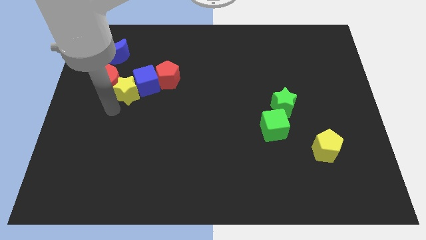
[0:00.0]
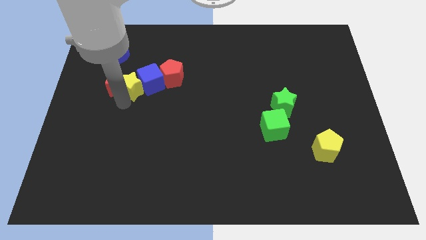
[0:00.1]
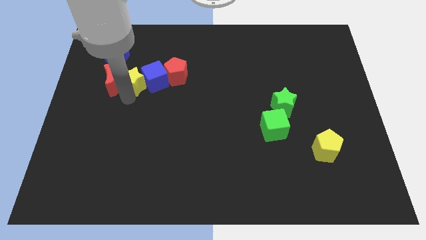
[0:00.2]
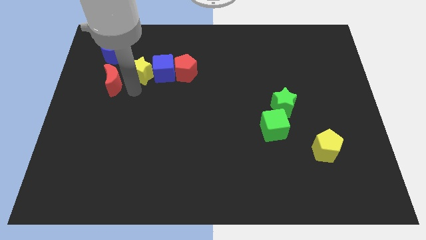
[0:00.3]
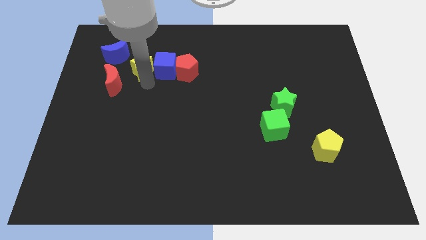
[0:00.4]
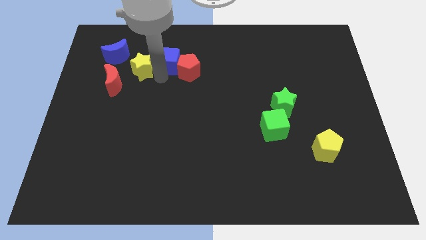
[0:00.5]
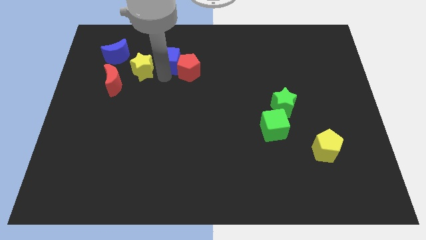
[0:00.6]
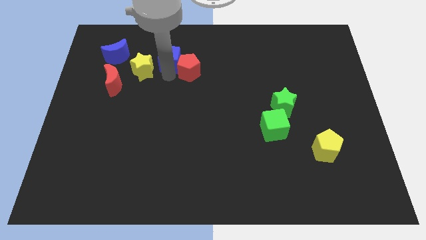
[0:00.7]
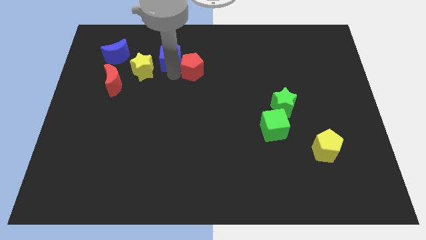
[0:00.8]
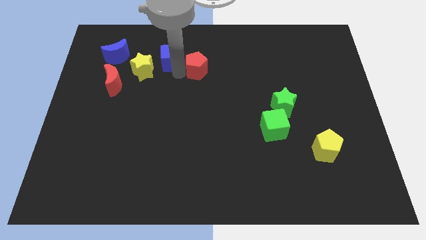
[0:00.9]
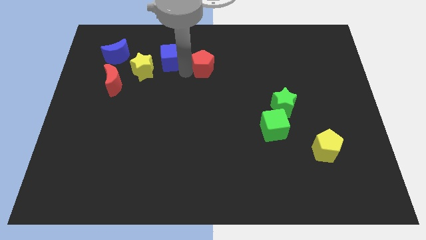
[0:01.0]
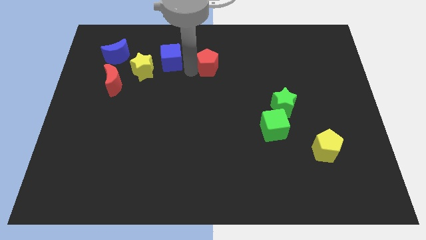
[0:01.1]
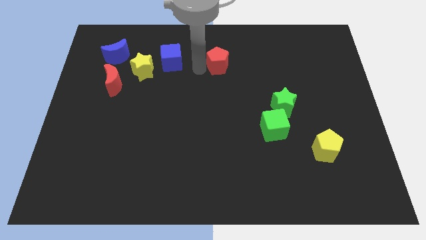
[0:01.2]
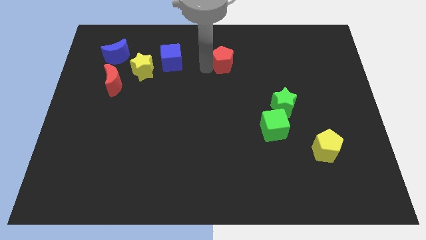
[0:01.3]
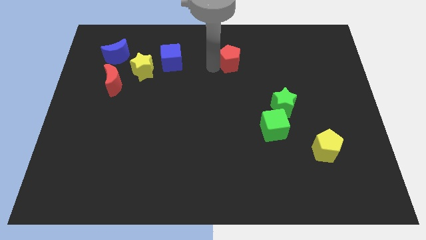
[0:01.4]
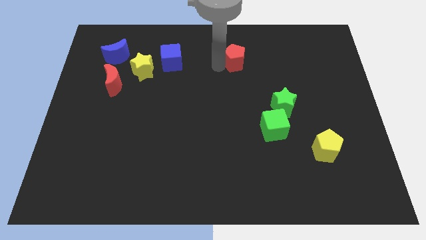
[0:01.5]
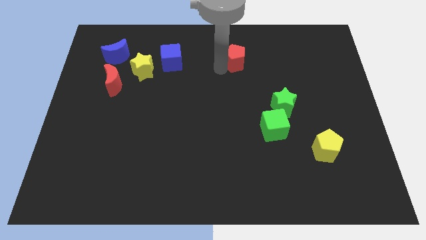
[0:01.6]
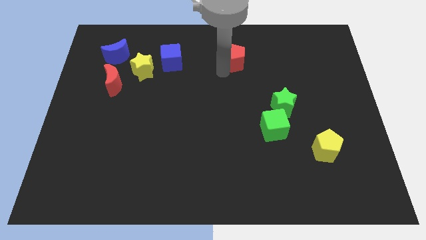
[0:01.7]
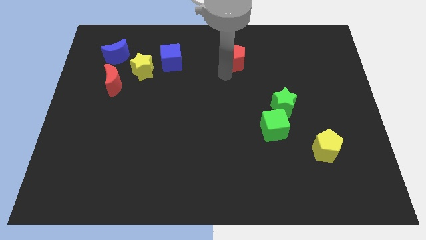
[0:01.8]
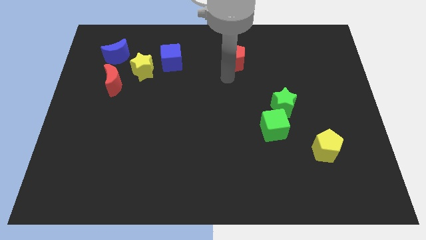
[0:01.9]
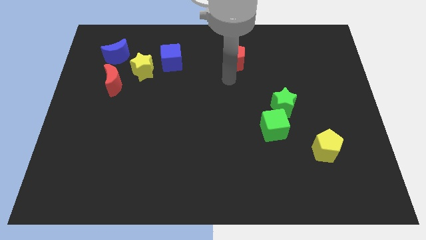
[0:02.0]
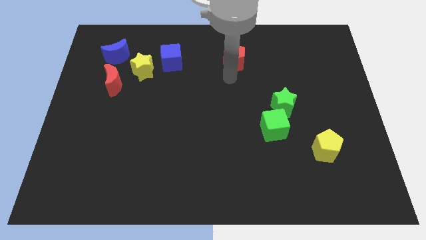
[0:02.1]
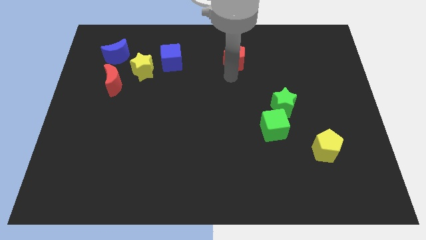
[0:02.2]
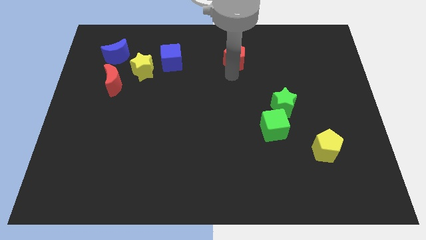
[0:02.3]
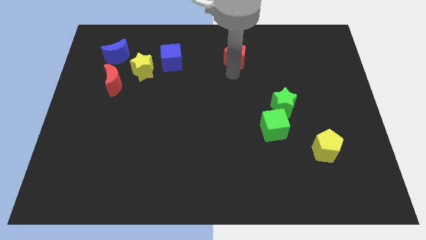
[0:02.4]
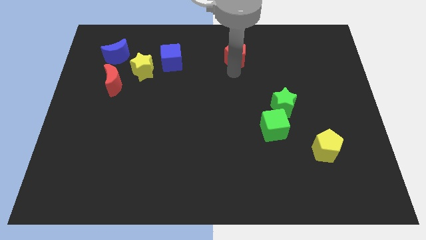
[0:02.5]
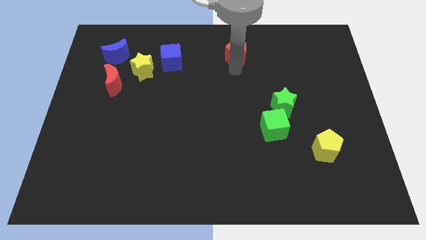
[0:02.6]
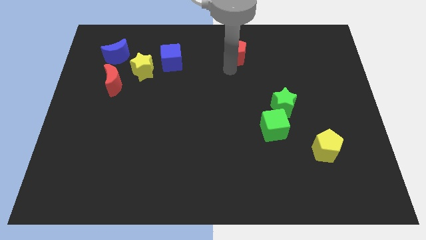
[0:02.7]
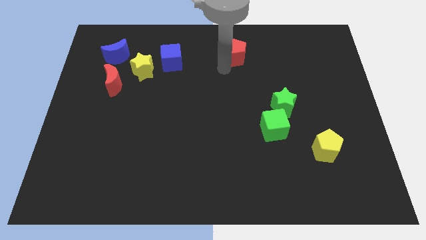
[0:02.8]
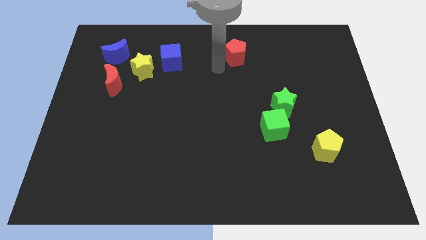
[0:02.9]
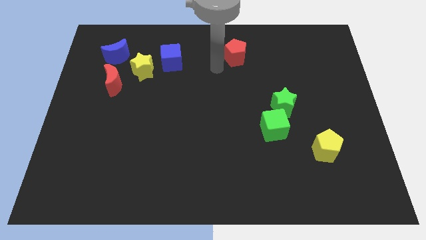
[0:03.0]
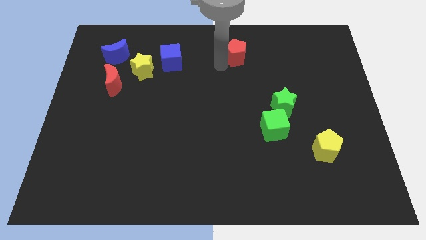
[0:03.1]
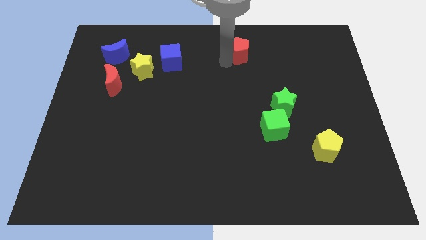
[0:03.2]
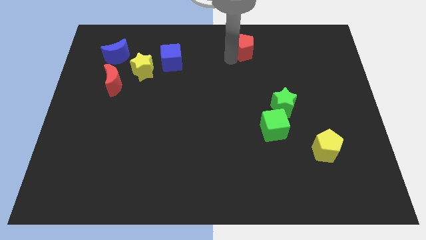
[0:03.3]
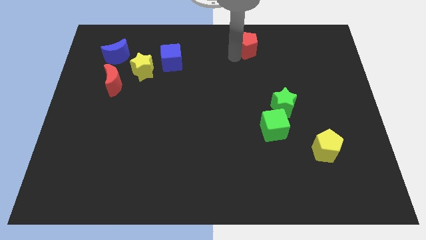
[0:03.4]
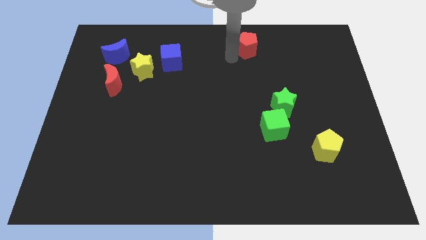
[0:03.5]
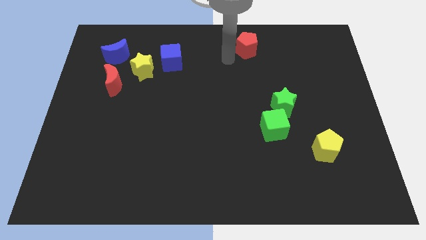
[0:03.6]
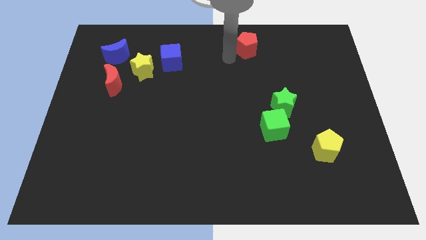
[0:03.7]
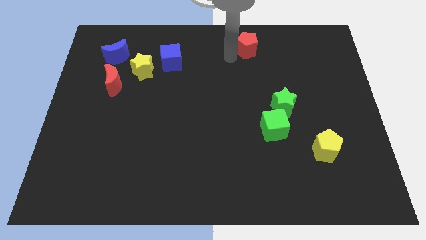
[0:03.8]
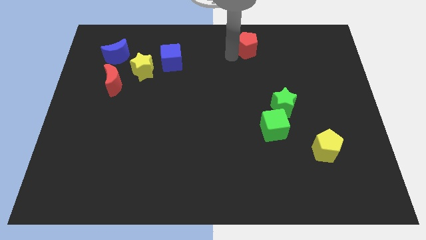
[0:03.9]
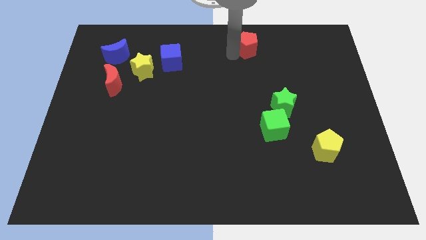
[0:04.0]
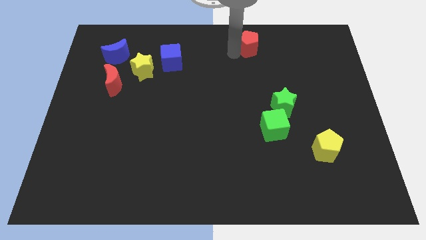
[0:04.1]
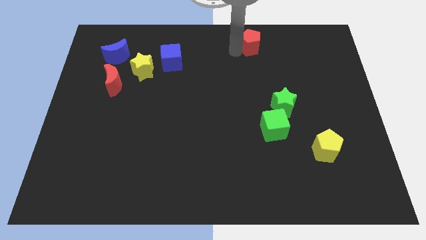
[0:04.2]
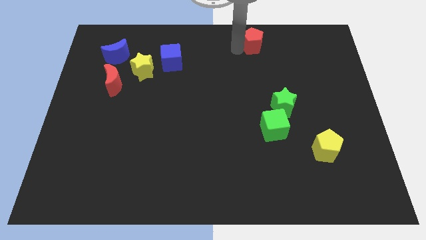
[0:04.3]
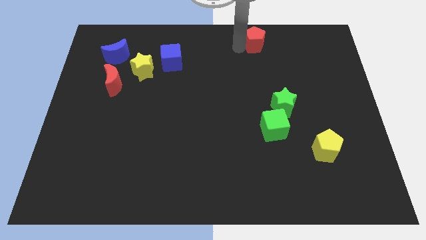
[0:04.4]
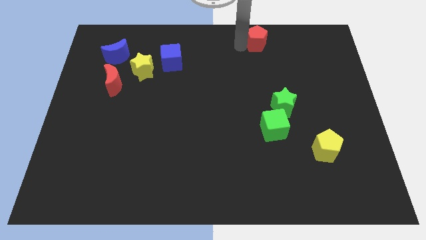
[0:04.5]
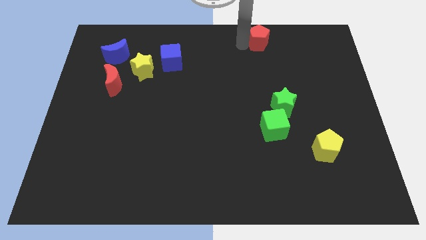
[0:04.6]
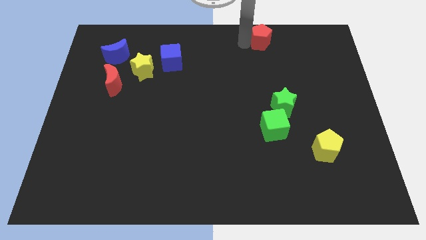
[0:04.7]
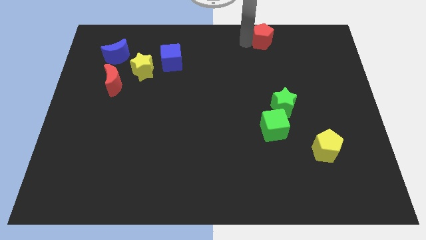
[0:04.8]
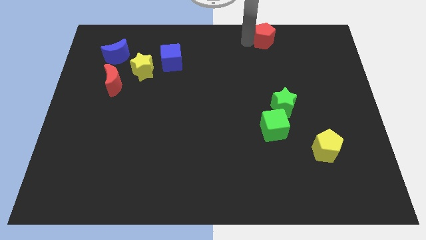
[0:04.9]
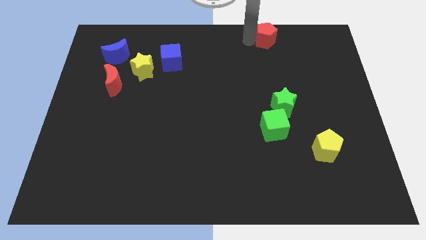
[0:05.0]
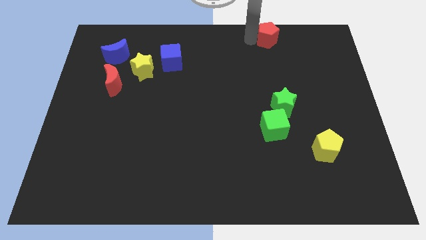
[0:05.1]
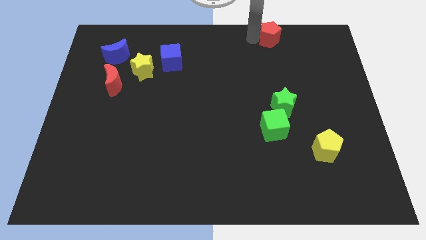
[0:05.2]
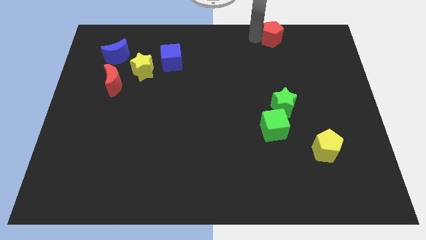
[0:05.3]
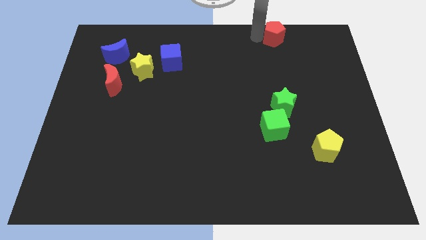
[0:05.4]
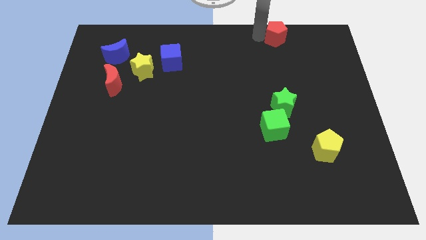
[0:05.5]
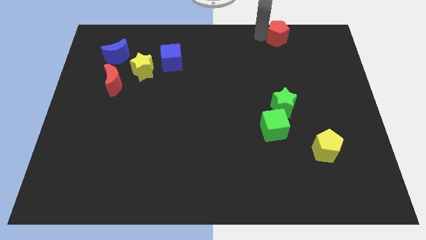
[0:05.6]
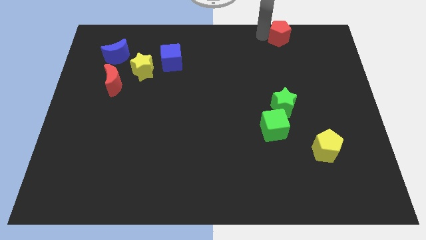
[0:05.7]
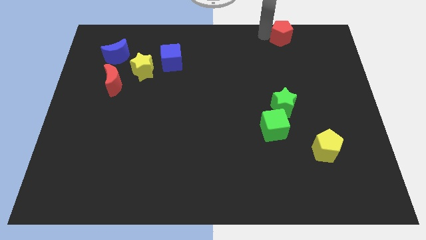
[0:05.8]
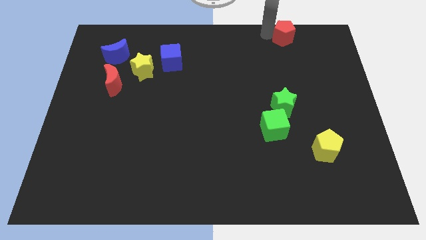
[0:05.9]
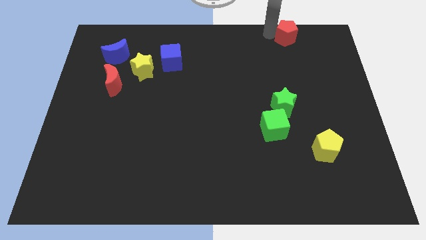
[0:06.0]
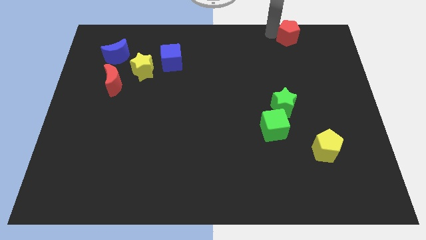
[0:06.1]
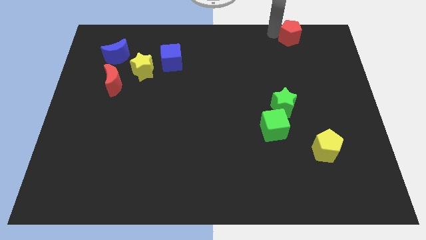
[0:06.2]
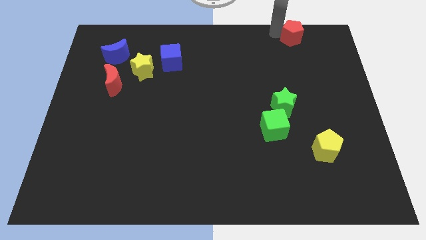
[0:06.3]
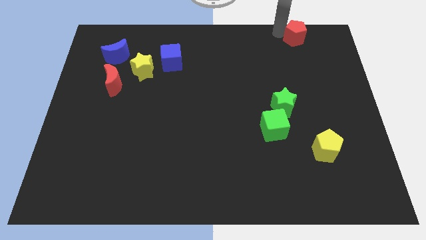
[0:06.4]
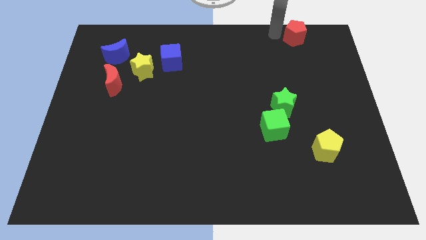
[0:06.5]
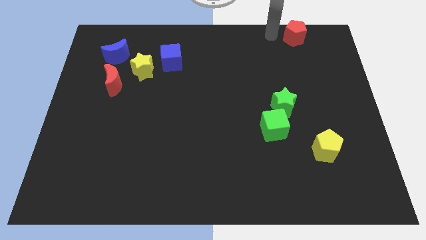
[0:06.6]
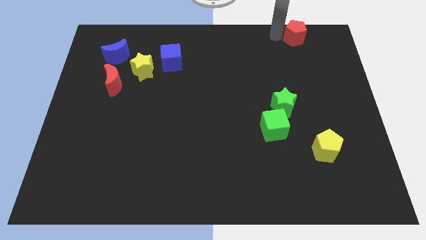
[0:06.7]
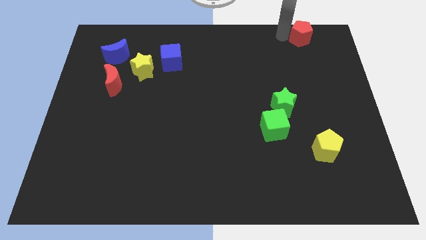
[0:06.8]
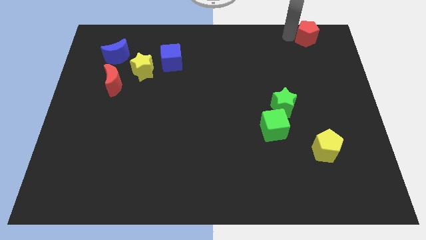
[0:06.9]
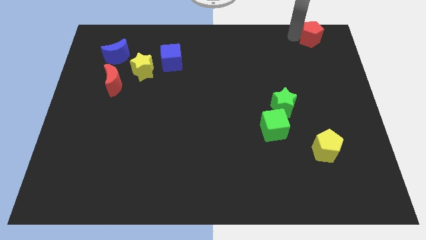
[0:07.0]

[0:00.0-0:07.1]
slide the red pentagon to the top right corner
